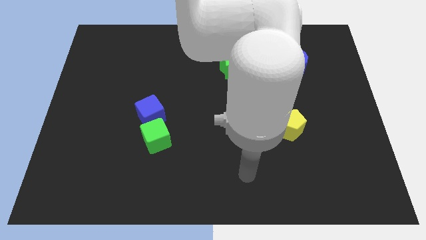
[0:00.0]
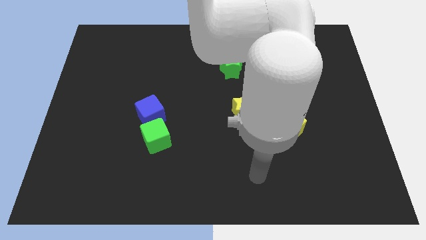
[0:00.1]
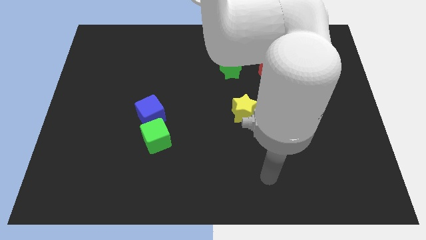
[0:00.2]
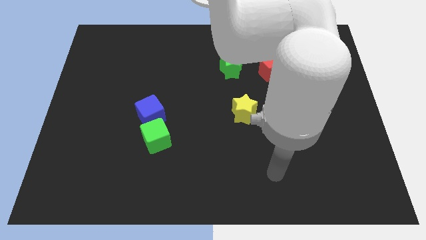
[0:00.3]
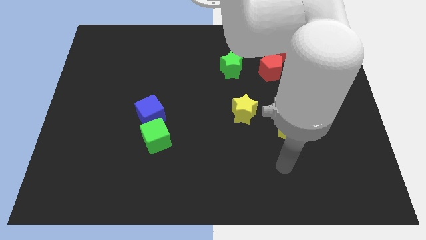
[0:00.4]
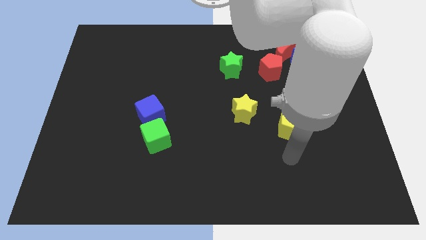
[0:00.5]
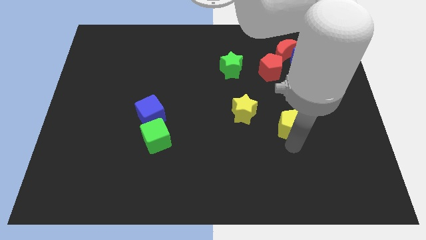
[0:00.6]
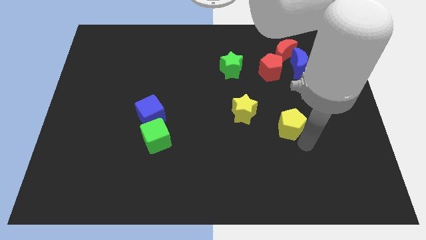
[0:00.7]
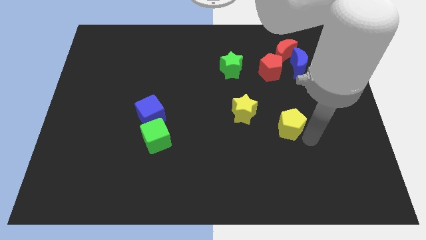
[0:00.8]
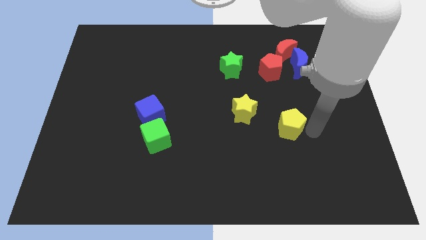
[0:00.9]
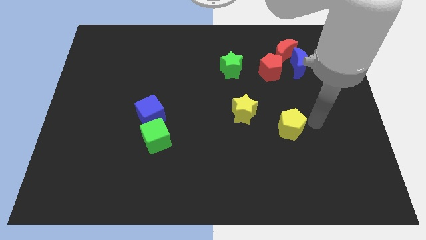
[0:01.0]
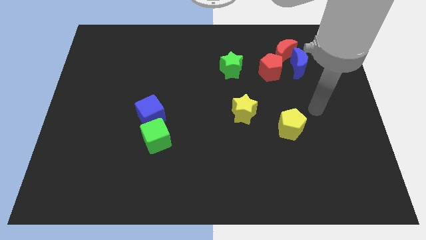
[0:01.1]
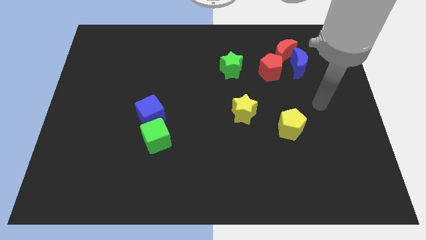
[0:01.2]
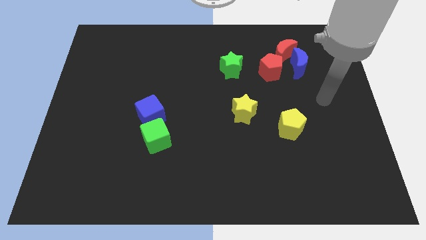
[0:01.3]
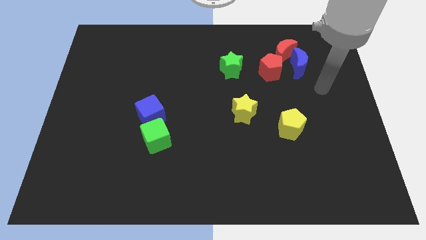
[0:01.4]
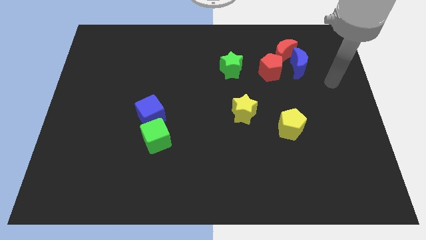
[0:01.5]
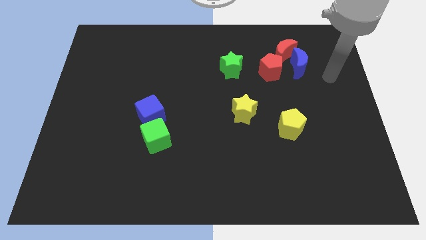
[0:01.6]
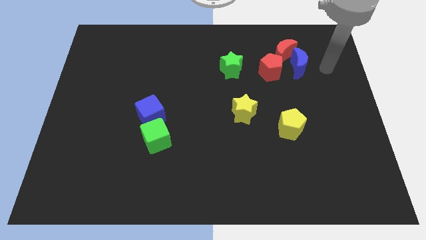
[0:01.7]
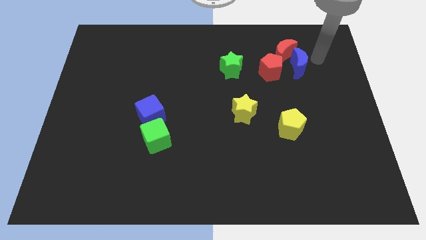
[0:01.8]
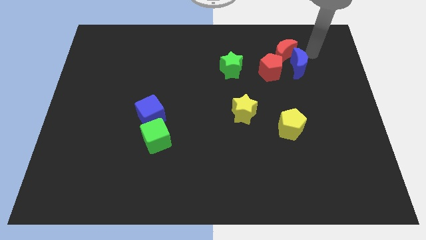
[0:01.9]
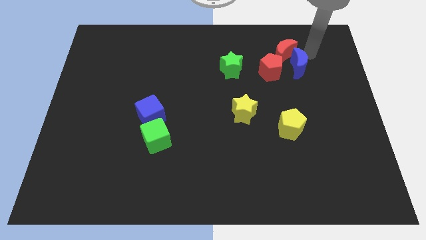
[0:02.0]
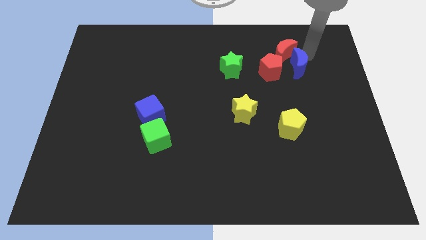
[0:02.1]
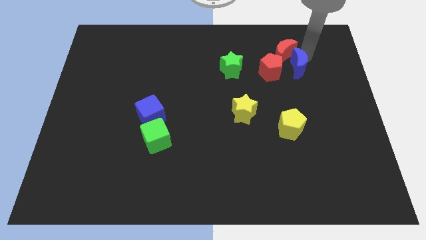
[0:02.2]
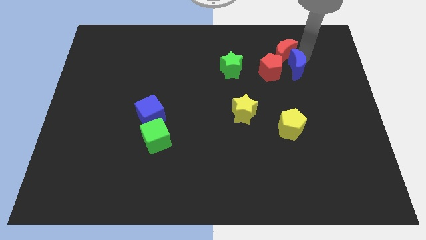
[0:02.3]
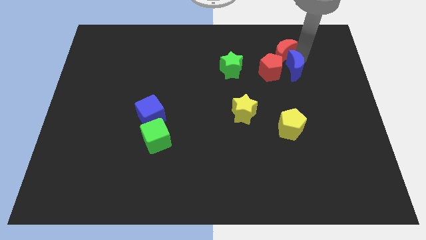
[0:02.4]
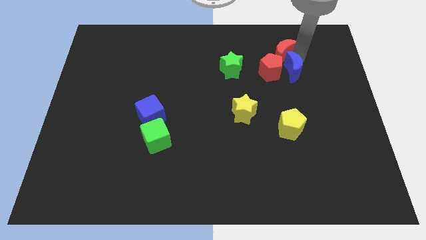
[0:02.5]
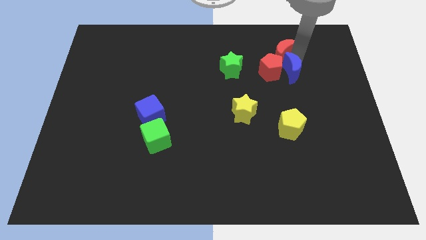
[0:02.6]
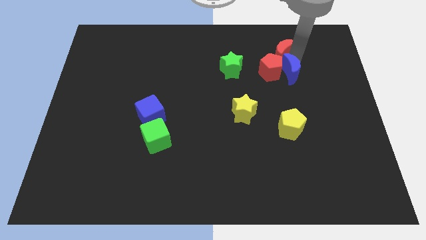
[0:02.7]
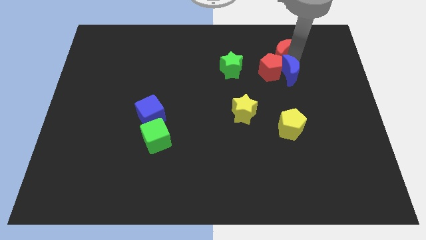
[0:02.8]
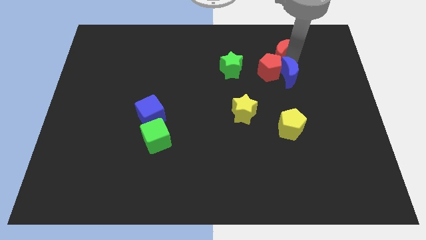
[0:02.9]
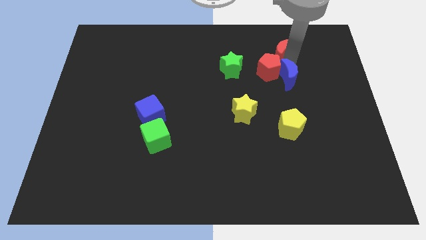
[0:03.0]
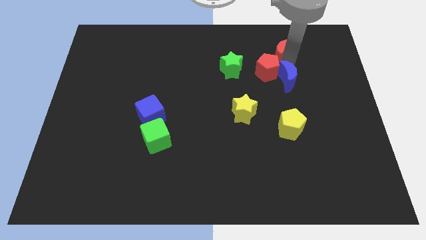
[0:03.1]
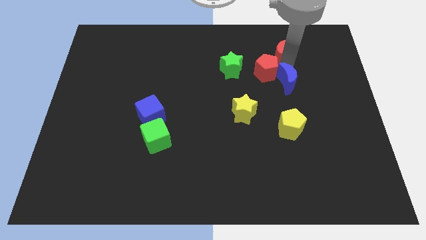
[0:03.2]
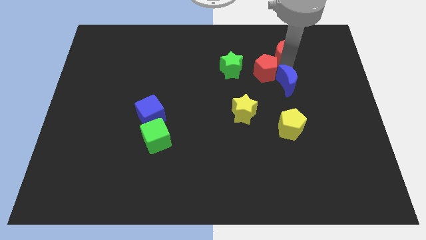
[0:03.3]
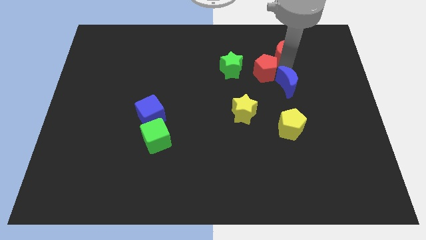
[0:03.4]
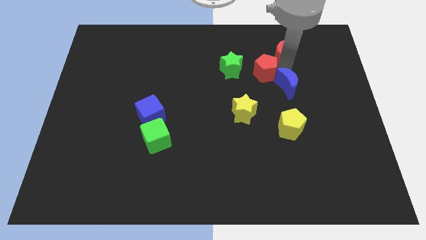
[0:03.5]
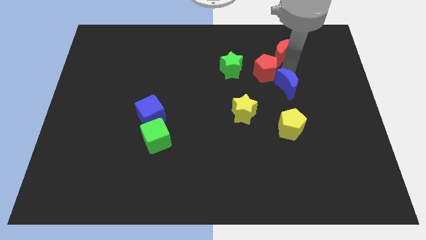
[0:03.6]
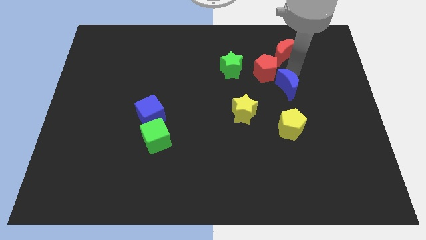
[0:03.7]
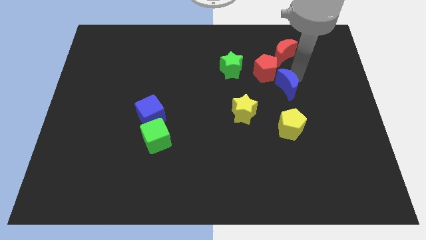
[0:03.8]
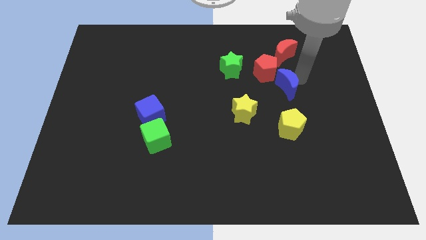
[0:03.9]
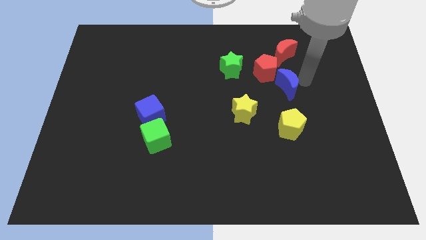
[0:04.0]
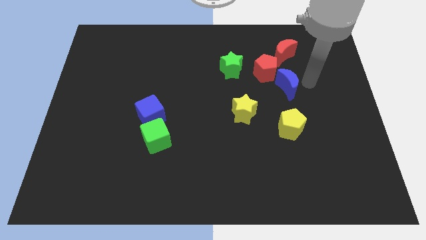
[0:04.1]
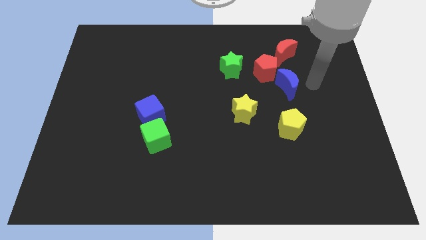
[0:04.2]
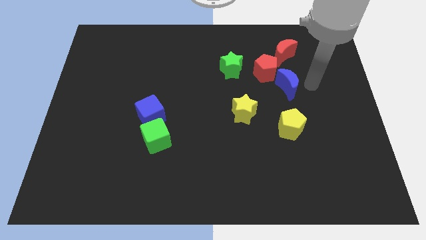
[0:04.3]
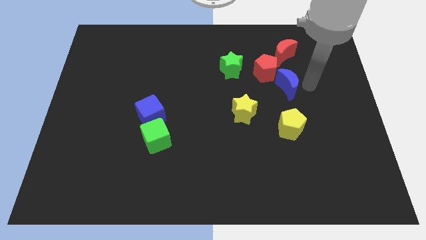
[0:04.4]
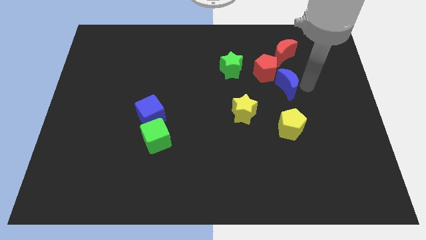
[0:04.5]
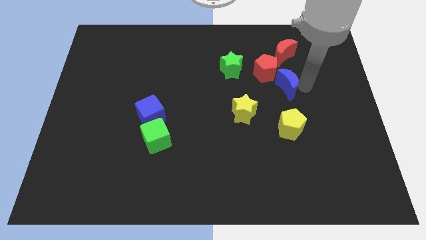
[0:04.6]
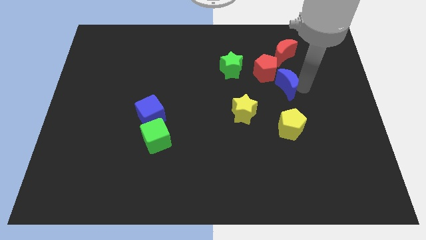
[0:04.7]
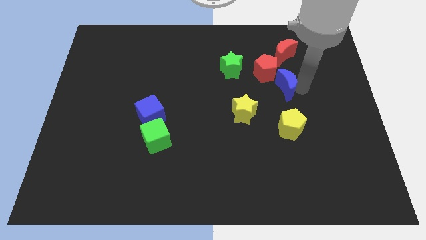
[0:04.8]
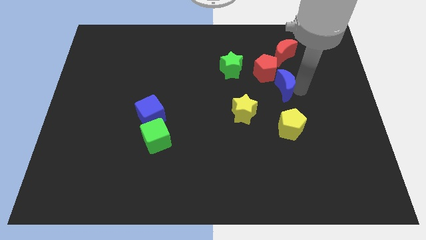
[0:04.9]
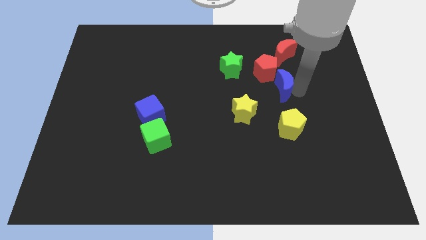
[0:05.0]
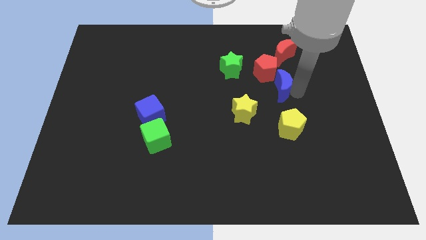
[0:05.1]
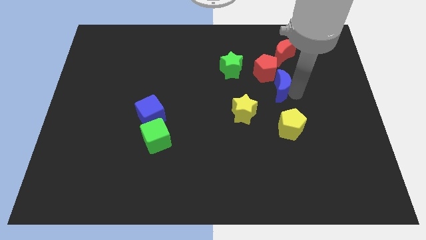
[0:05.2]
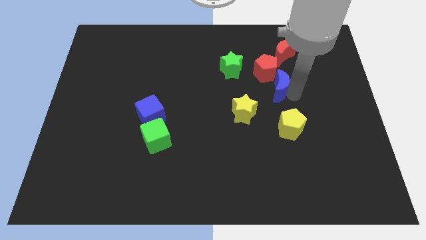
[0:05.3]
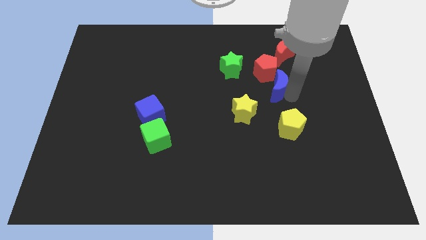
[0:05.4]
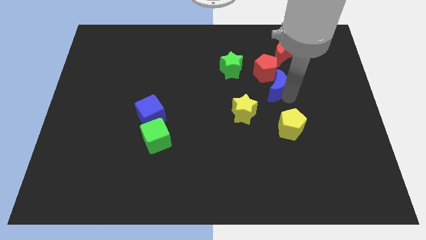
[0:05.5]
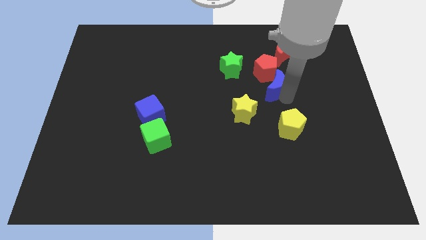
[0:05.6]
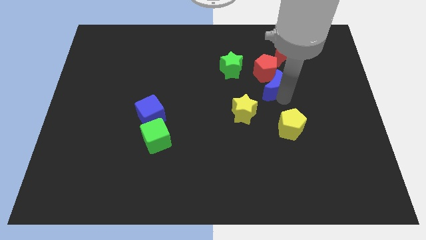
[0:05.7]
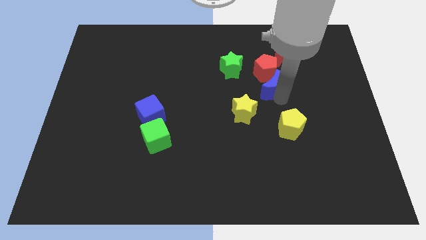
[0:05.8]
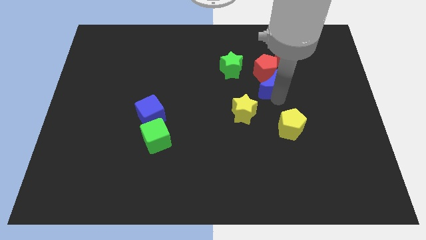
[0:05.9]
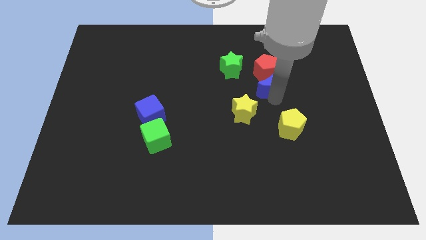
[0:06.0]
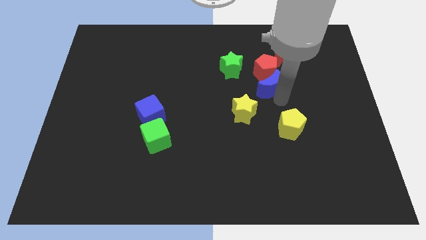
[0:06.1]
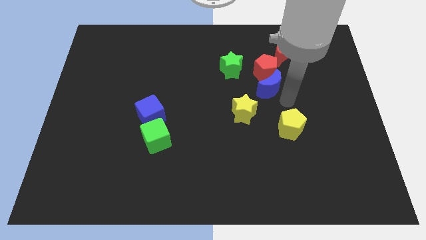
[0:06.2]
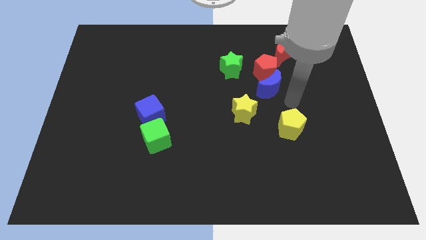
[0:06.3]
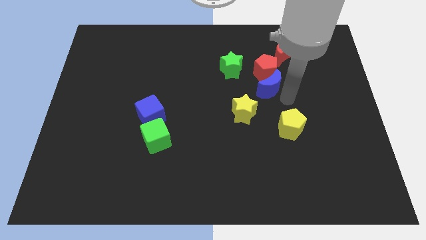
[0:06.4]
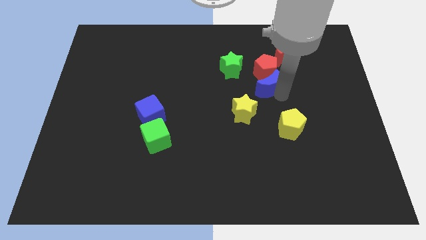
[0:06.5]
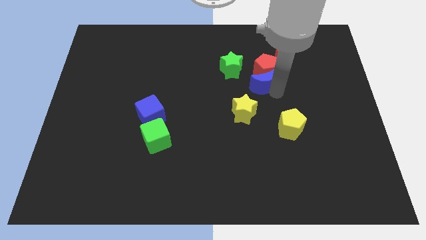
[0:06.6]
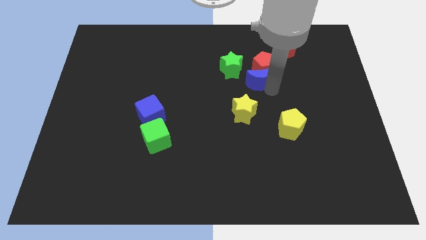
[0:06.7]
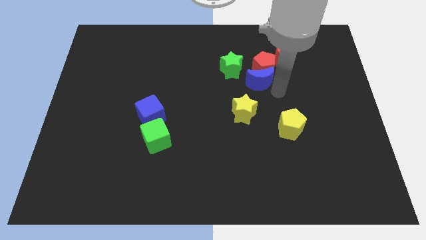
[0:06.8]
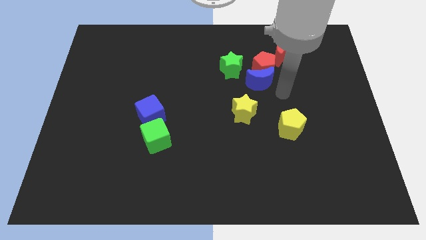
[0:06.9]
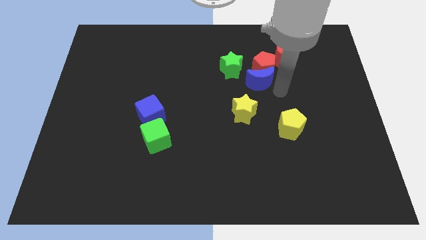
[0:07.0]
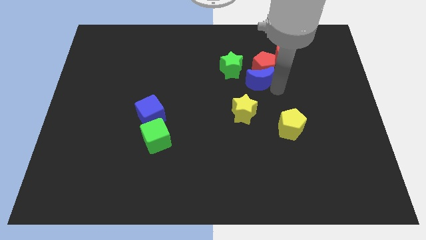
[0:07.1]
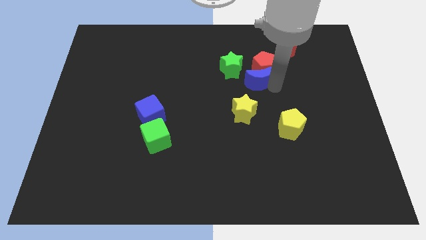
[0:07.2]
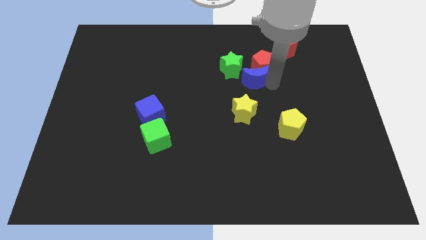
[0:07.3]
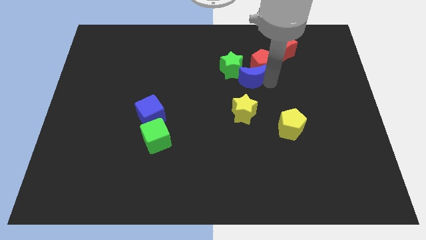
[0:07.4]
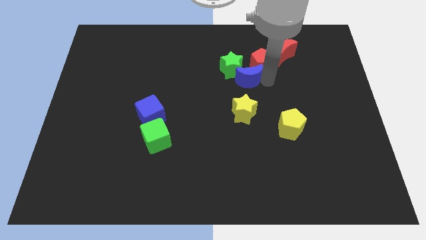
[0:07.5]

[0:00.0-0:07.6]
move the blue moon next to the green star
